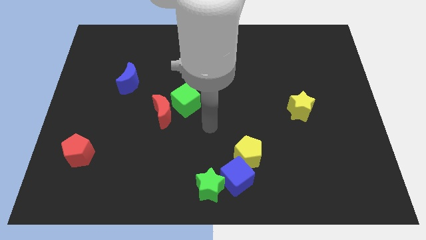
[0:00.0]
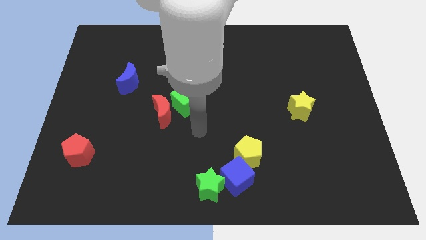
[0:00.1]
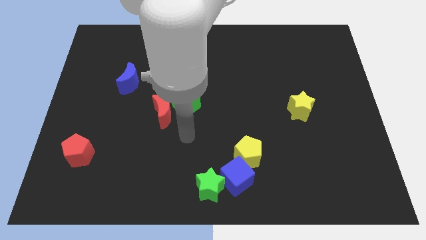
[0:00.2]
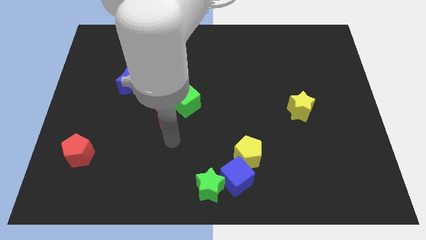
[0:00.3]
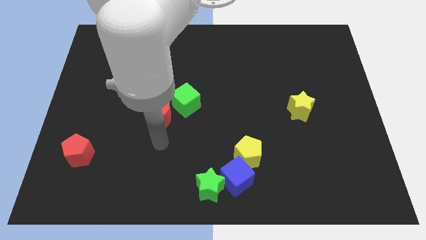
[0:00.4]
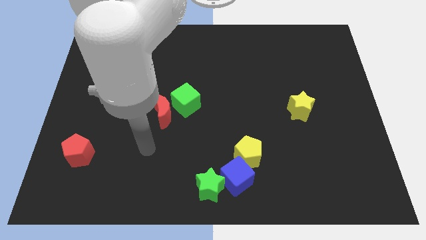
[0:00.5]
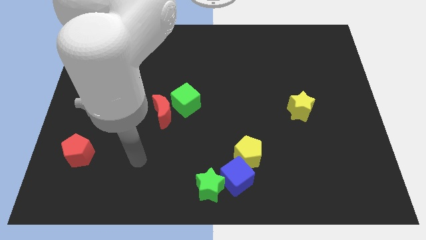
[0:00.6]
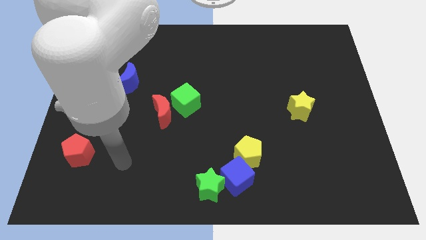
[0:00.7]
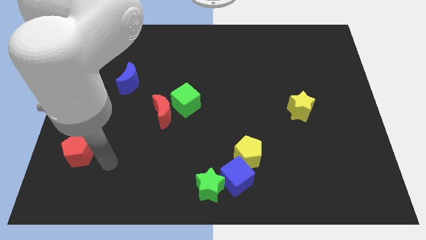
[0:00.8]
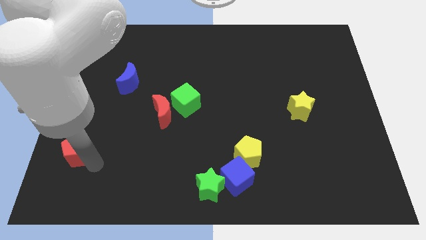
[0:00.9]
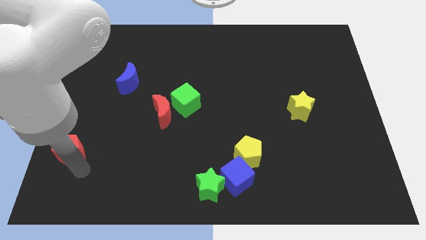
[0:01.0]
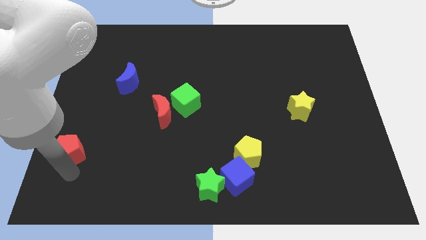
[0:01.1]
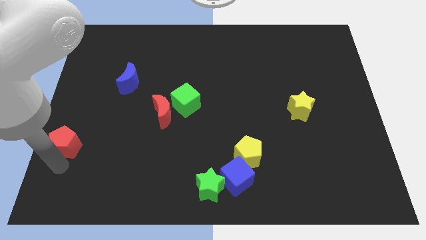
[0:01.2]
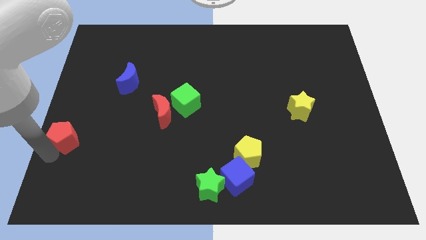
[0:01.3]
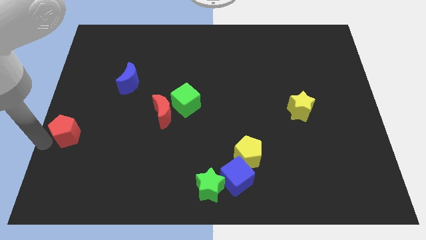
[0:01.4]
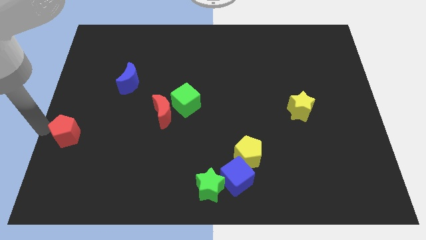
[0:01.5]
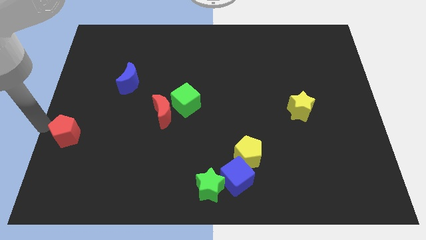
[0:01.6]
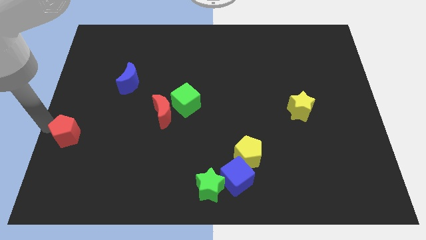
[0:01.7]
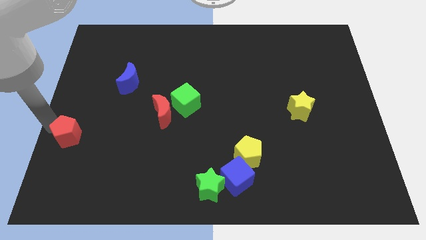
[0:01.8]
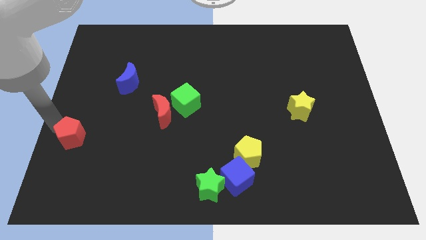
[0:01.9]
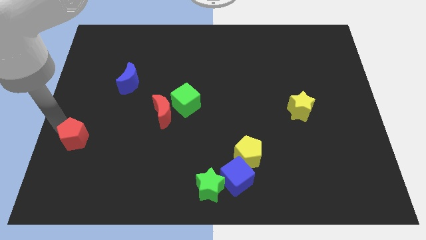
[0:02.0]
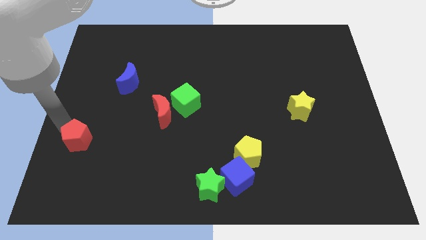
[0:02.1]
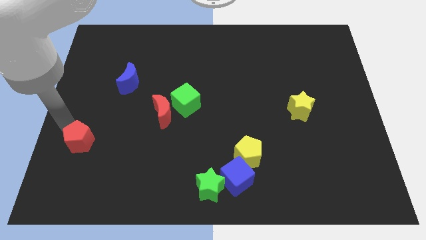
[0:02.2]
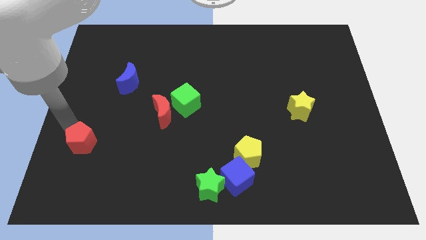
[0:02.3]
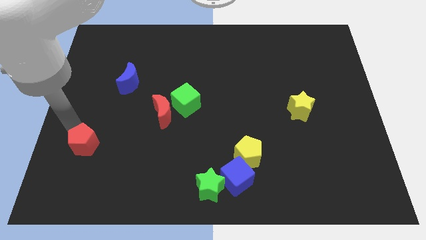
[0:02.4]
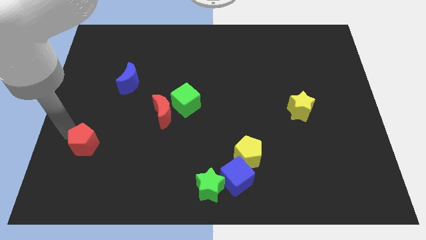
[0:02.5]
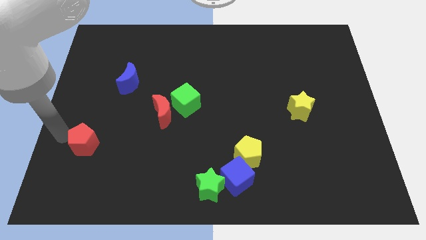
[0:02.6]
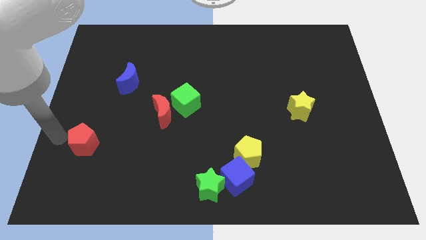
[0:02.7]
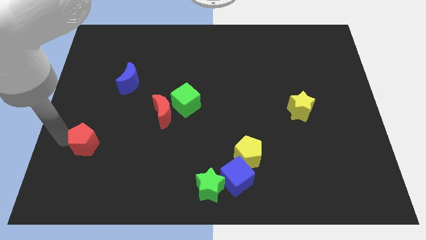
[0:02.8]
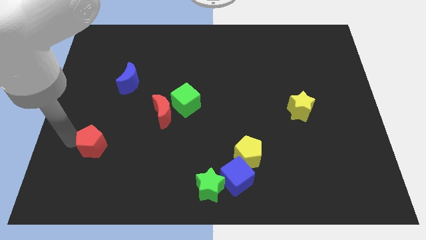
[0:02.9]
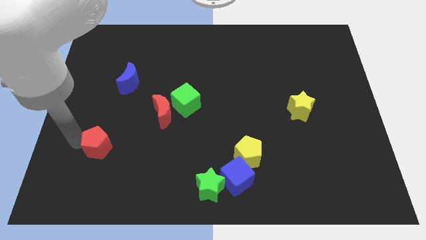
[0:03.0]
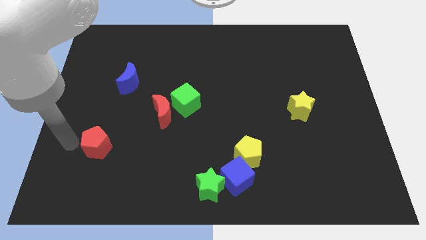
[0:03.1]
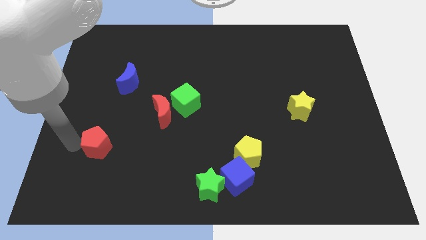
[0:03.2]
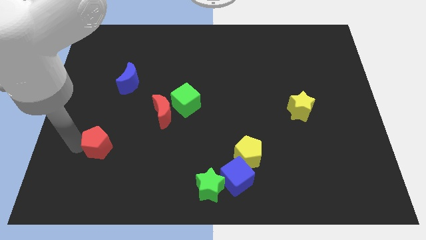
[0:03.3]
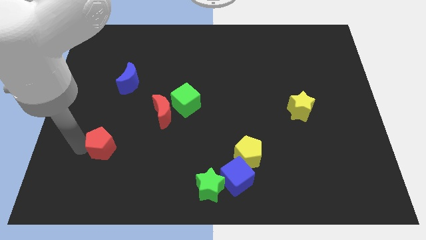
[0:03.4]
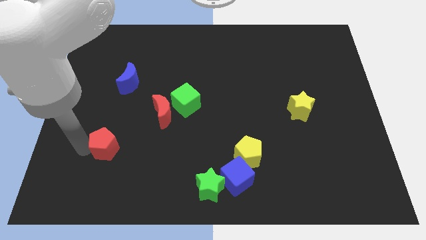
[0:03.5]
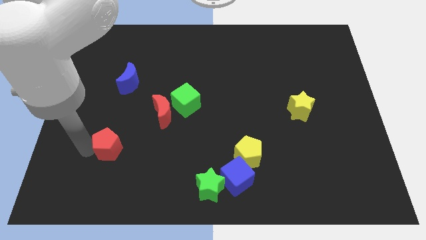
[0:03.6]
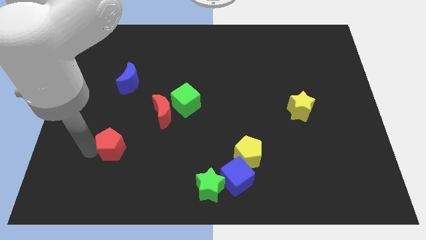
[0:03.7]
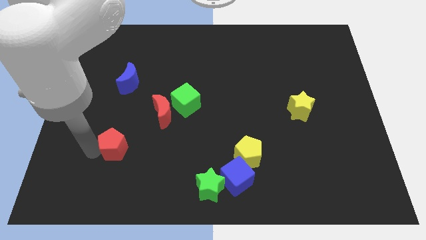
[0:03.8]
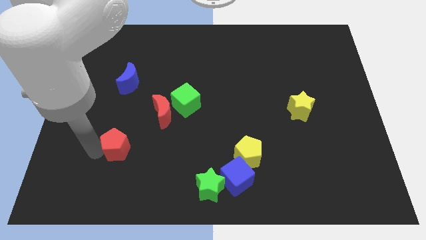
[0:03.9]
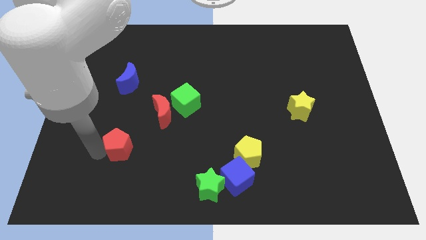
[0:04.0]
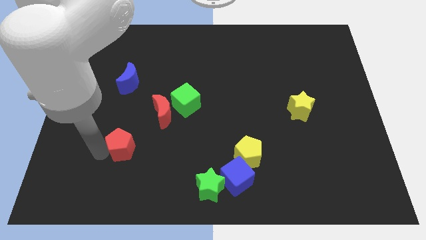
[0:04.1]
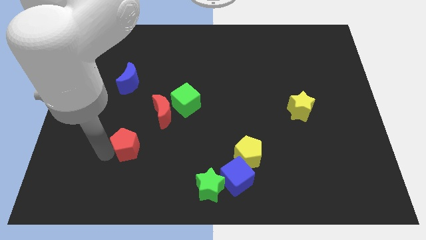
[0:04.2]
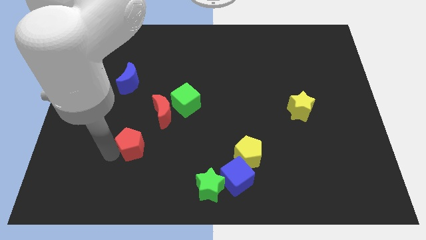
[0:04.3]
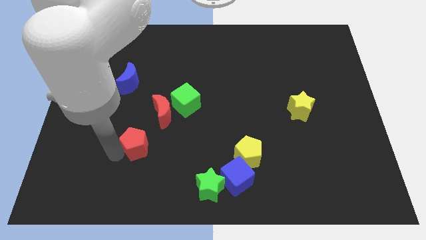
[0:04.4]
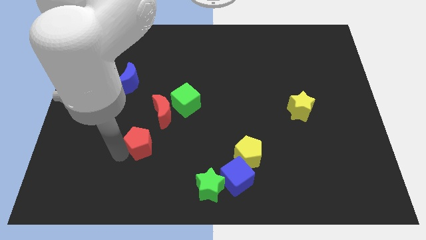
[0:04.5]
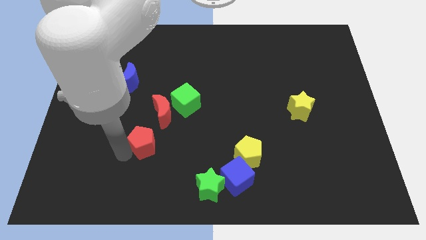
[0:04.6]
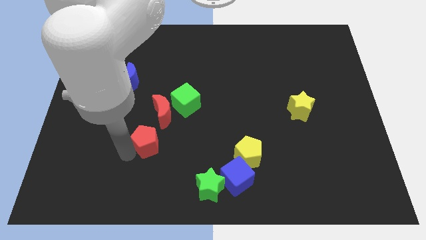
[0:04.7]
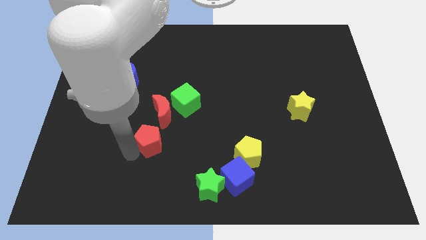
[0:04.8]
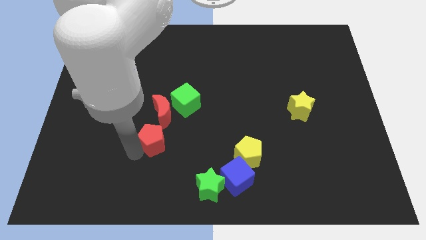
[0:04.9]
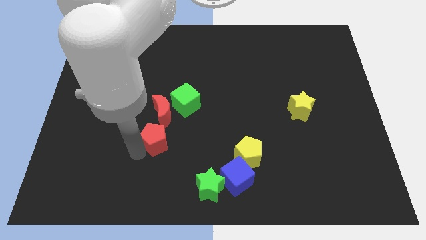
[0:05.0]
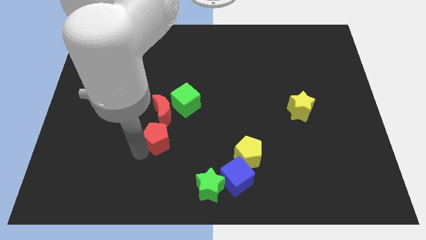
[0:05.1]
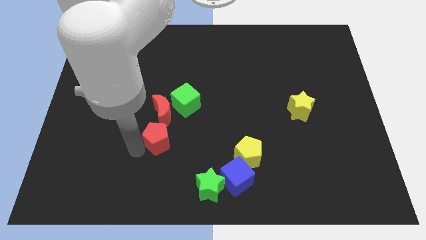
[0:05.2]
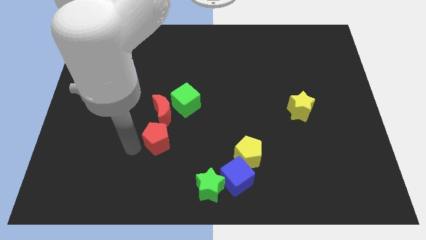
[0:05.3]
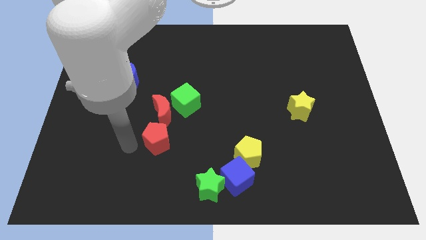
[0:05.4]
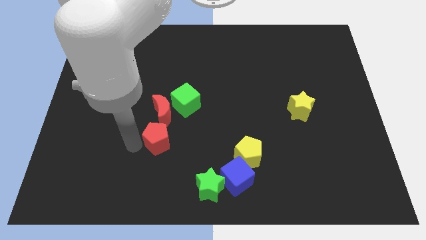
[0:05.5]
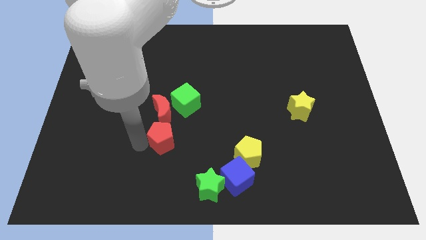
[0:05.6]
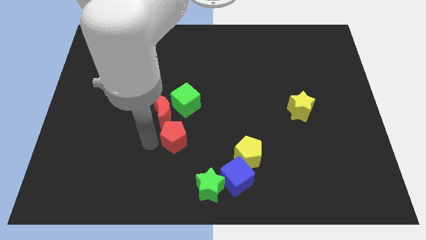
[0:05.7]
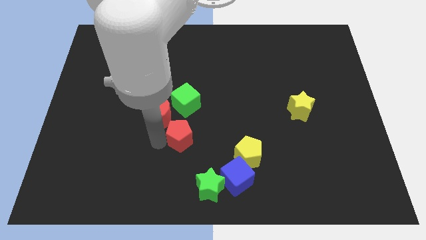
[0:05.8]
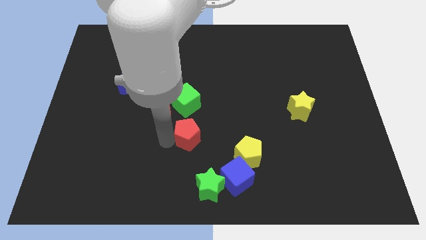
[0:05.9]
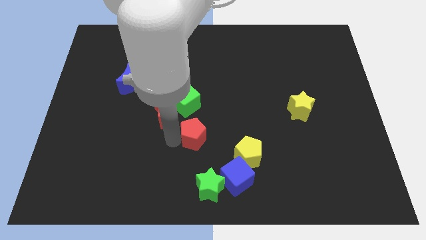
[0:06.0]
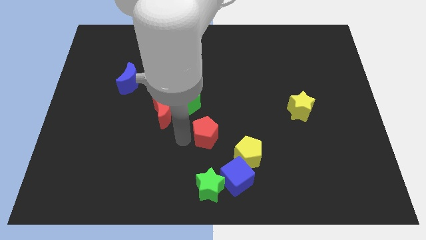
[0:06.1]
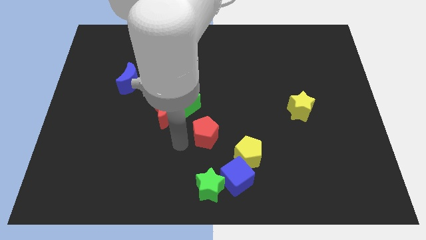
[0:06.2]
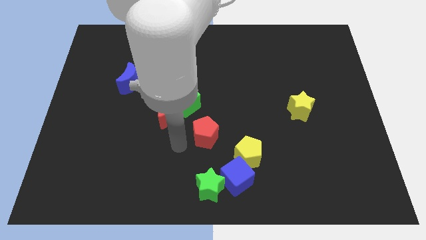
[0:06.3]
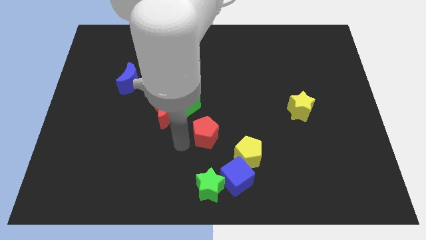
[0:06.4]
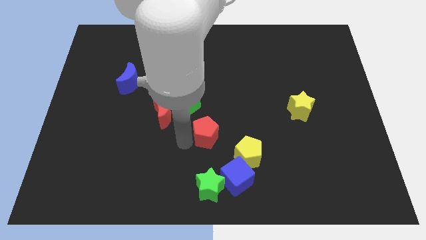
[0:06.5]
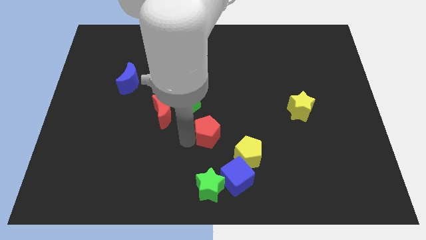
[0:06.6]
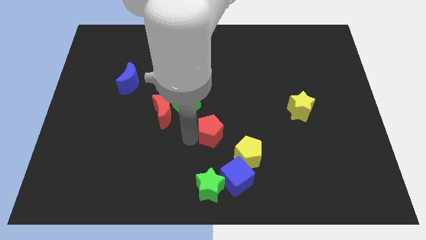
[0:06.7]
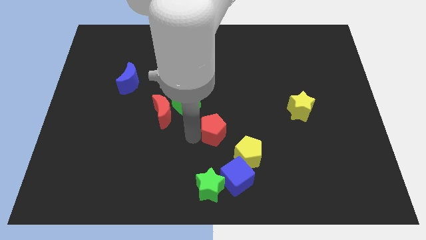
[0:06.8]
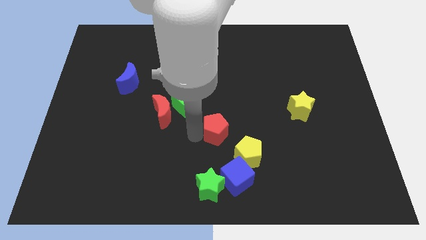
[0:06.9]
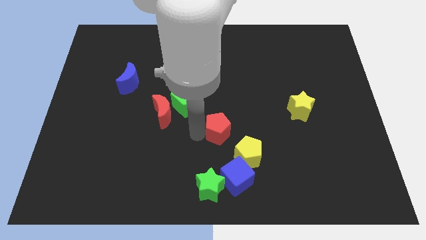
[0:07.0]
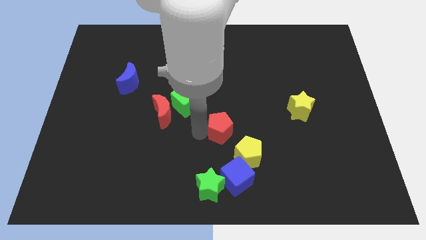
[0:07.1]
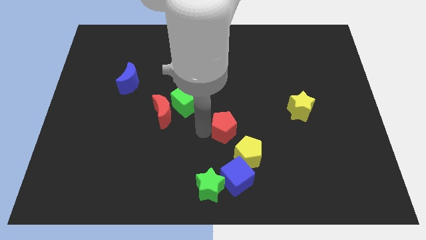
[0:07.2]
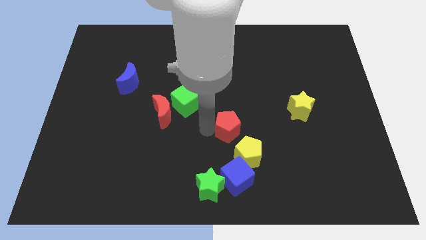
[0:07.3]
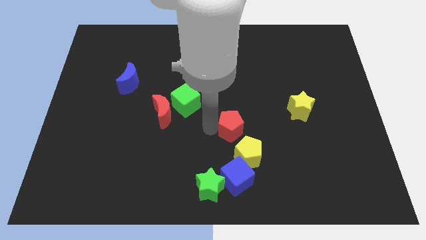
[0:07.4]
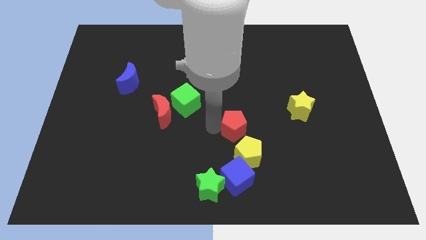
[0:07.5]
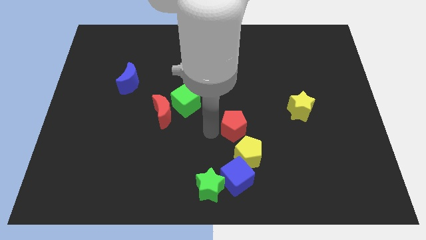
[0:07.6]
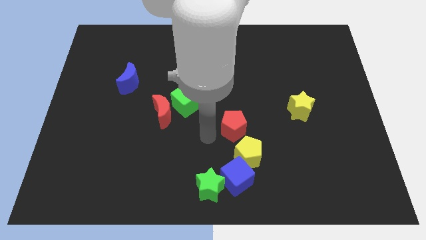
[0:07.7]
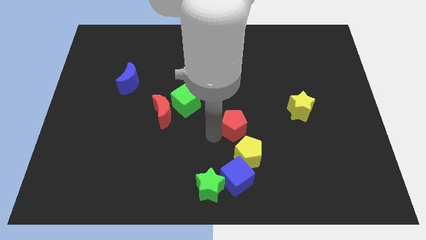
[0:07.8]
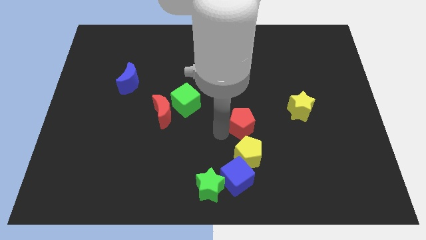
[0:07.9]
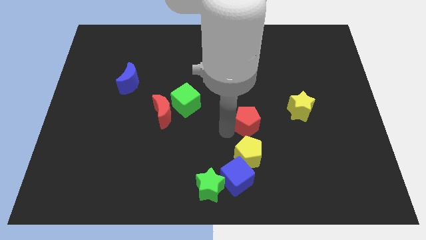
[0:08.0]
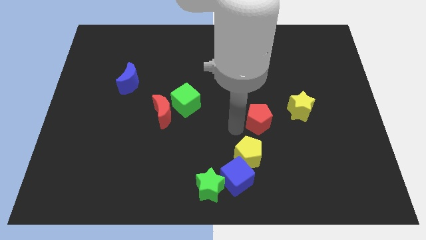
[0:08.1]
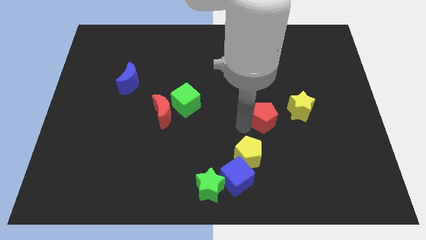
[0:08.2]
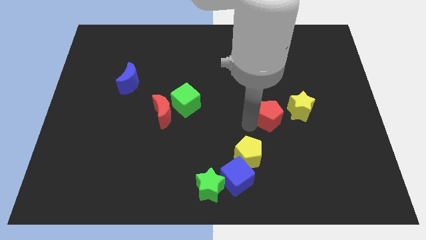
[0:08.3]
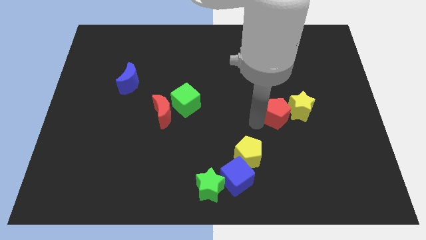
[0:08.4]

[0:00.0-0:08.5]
push the red pentagon to the yellow star
